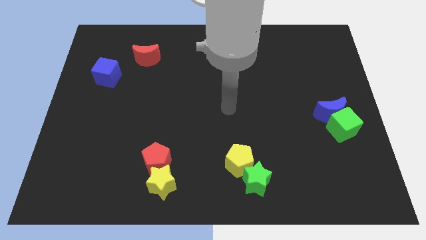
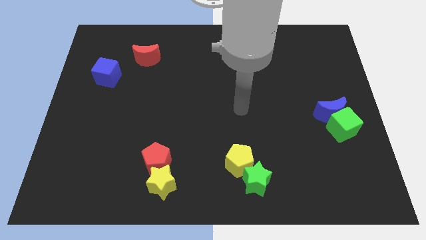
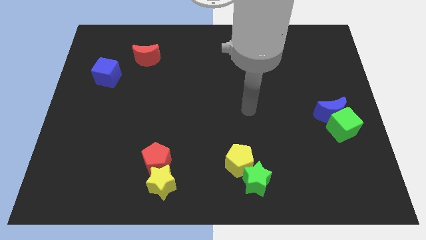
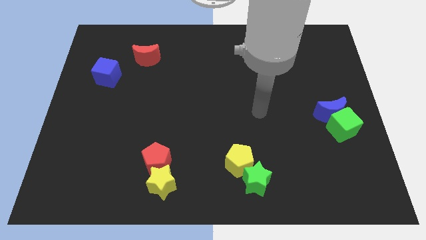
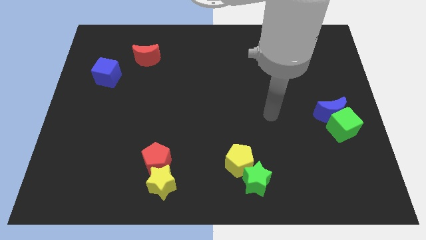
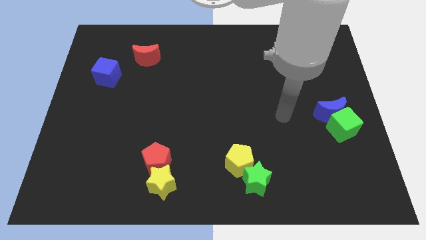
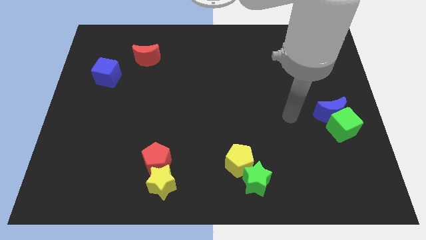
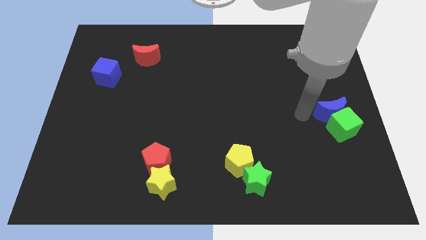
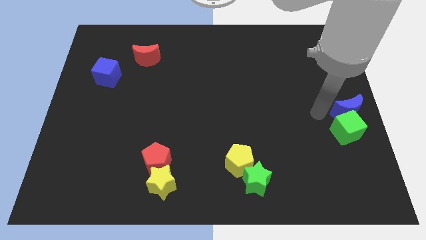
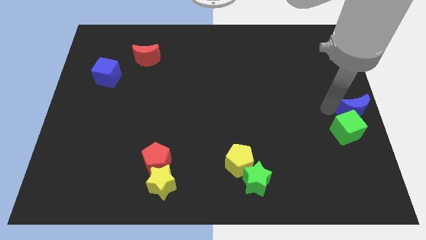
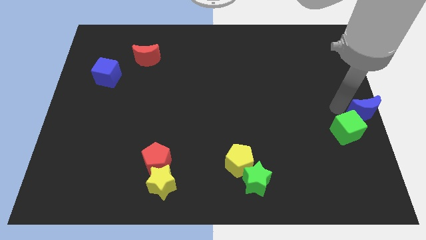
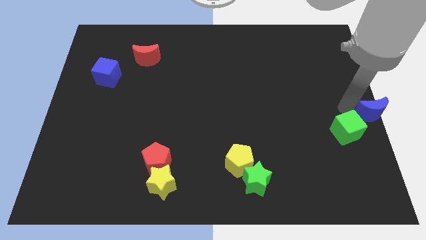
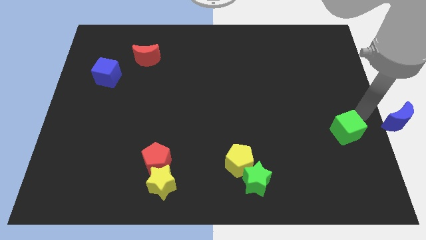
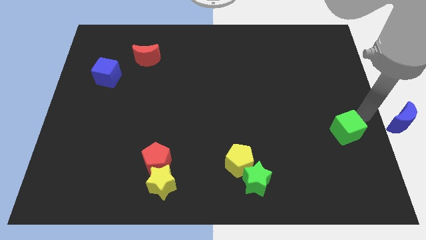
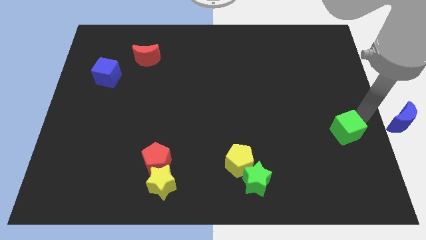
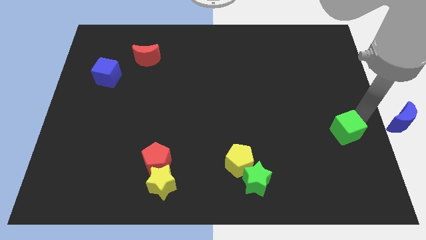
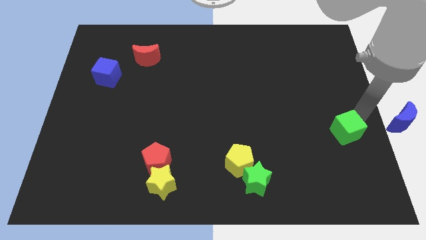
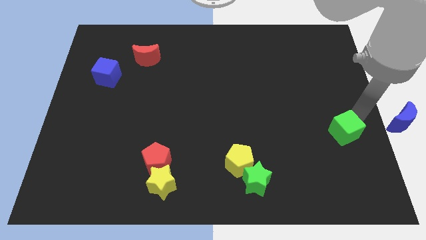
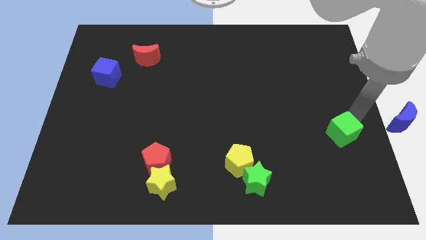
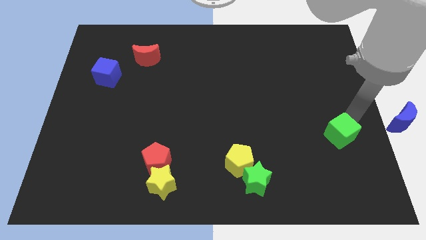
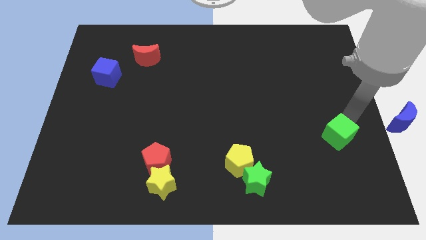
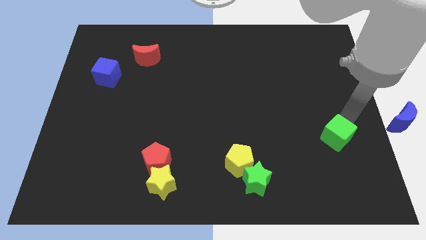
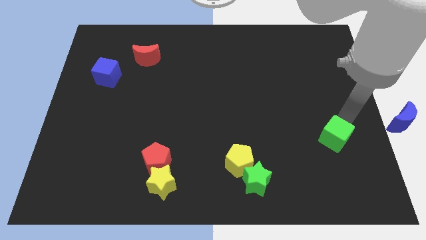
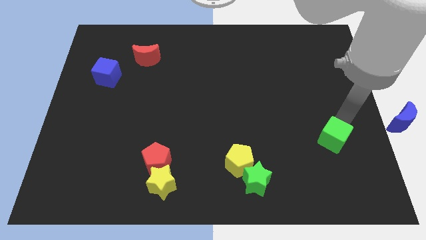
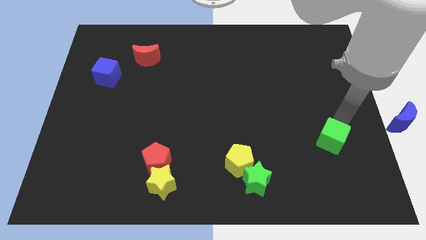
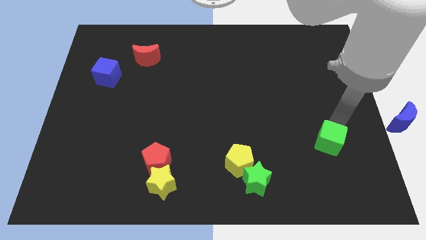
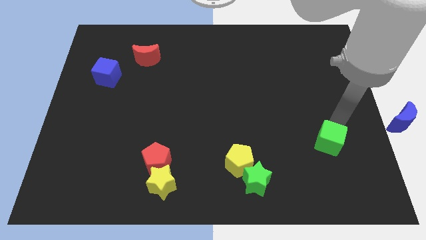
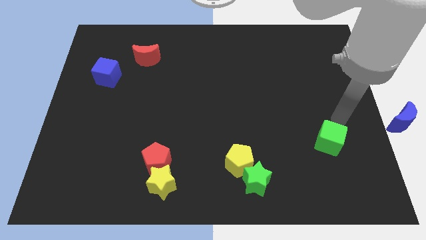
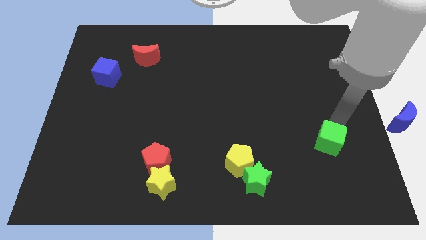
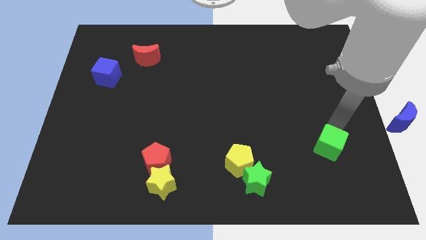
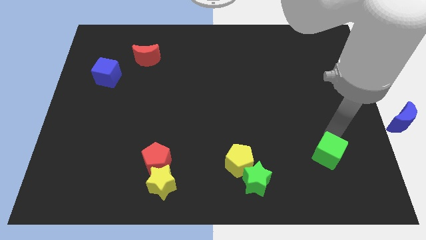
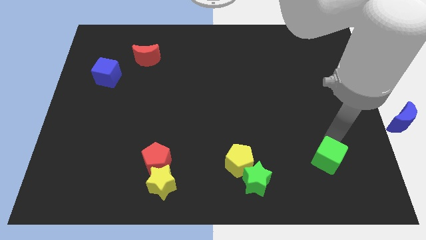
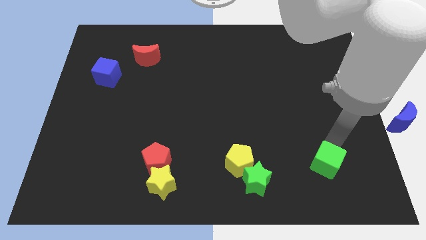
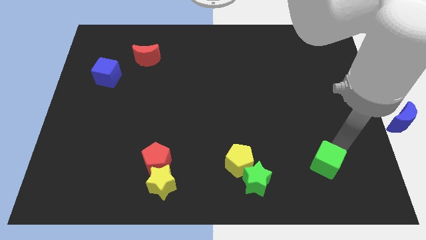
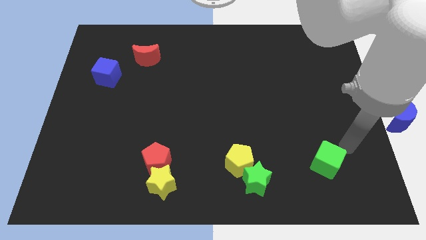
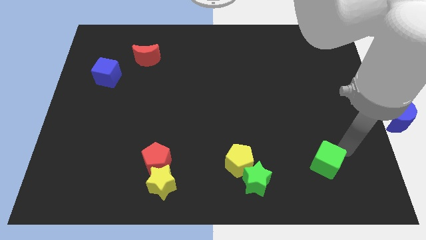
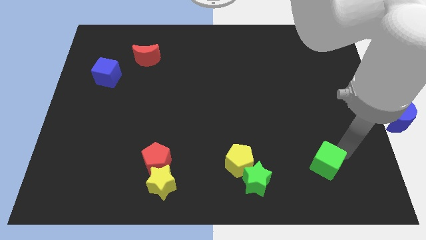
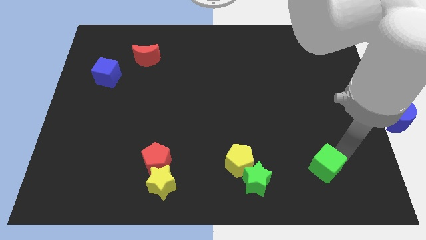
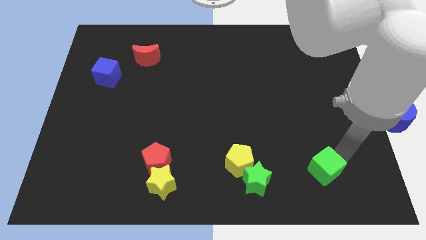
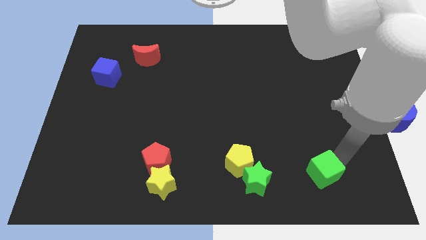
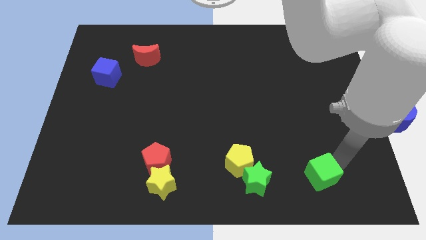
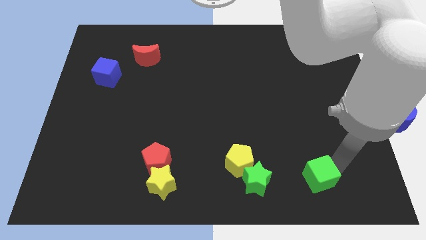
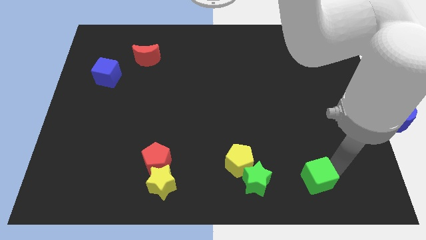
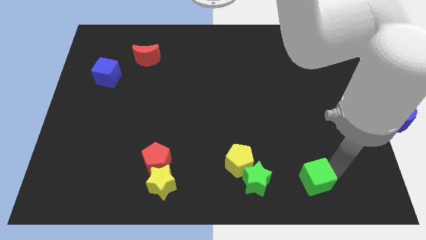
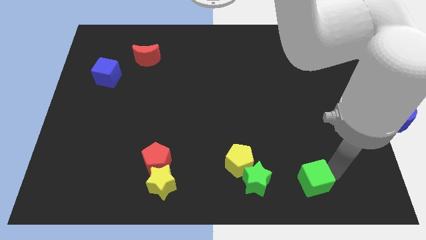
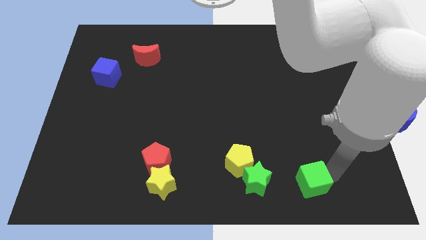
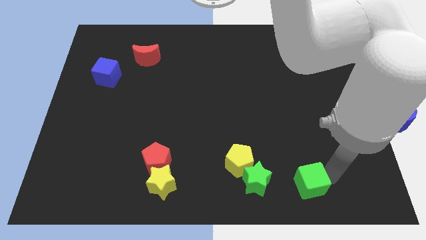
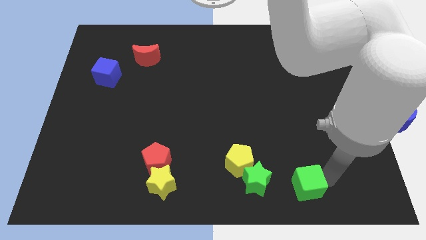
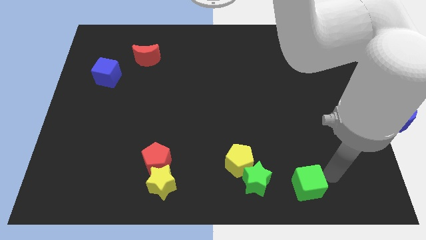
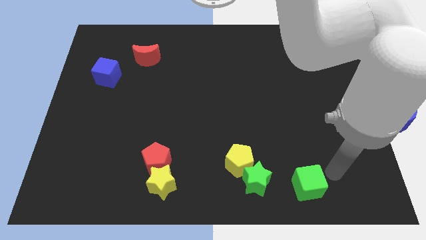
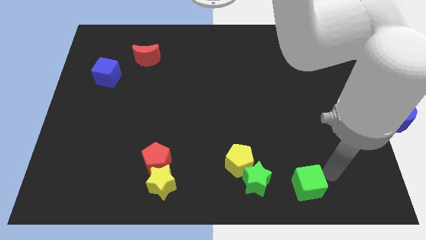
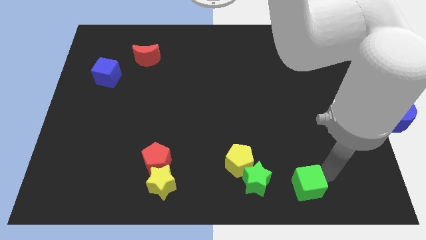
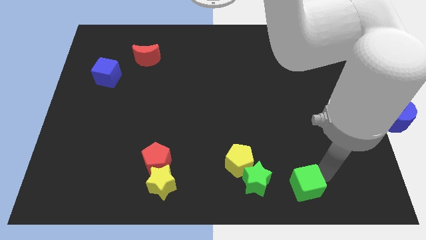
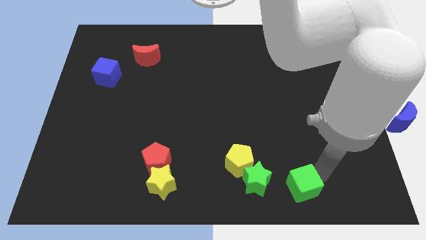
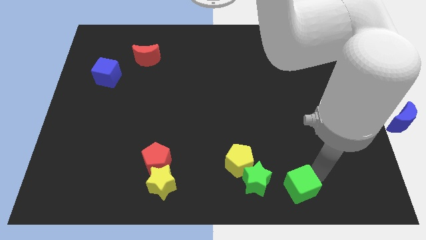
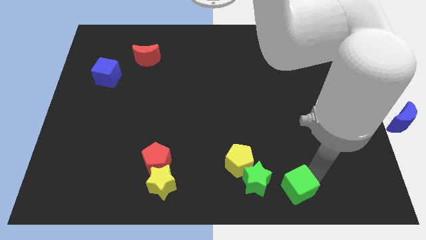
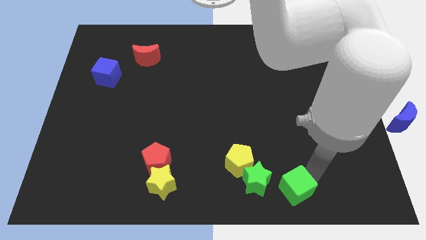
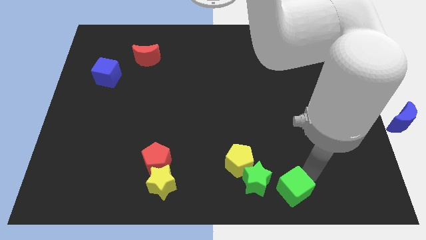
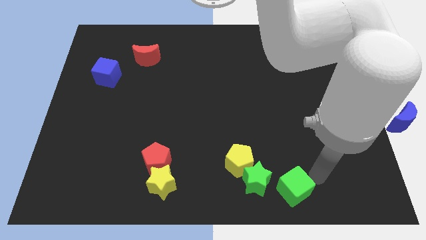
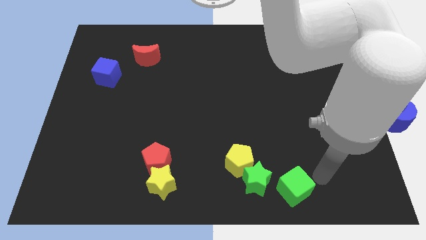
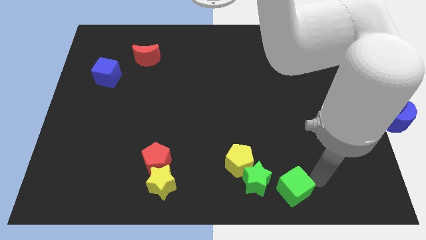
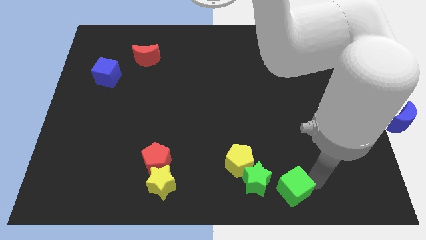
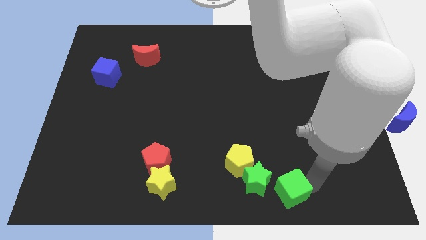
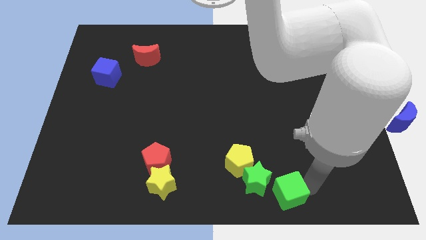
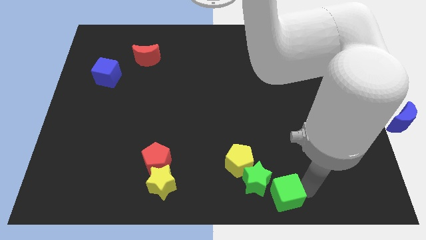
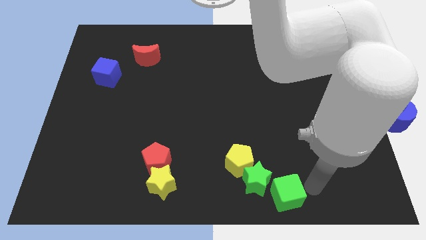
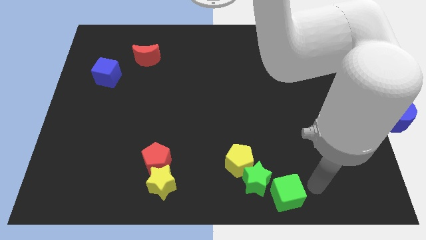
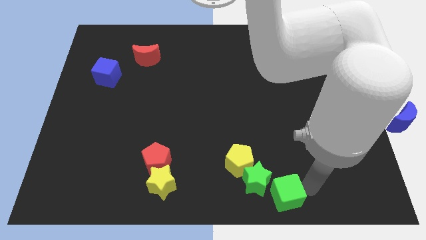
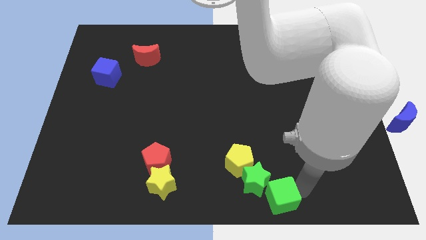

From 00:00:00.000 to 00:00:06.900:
push the green cube to the bottom side
